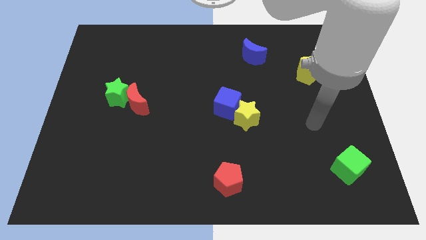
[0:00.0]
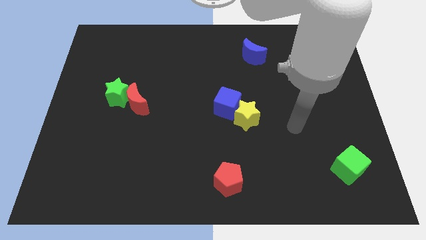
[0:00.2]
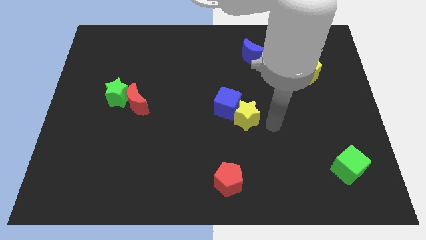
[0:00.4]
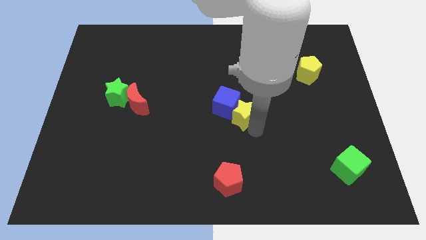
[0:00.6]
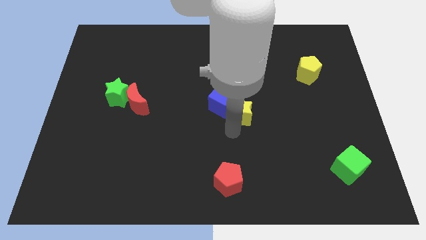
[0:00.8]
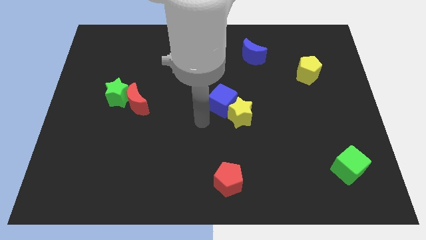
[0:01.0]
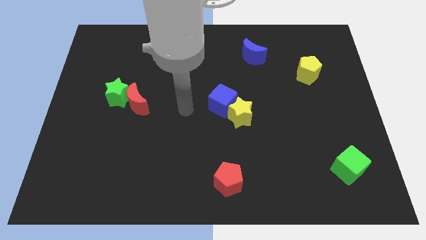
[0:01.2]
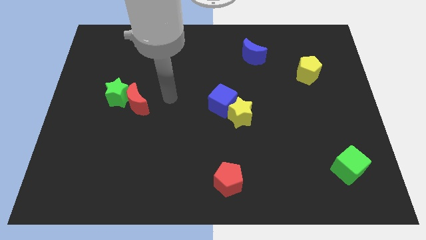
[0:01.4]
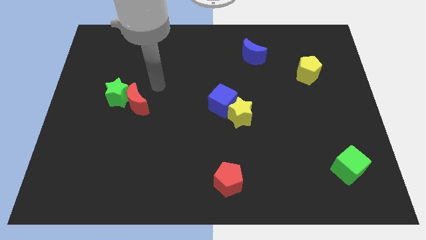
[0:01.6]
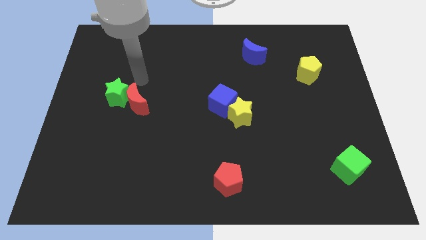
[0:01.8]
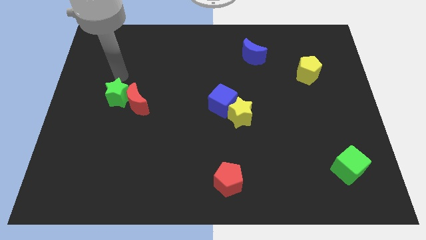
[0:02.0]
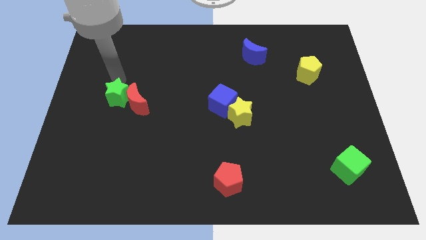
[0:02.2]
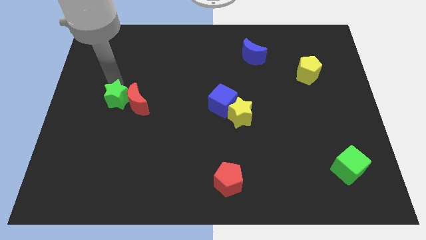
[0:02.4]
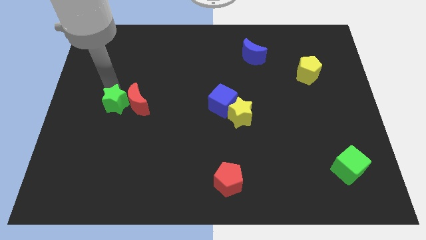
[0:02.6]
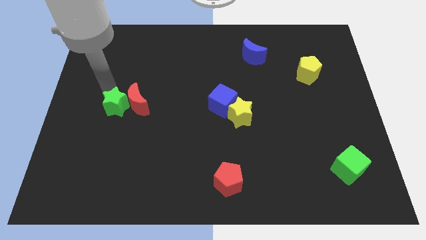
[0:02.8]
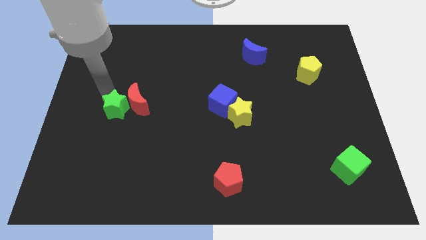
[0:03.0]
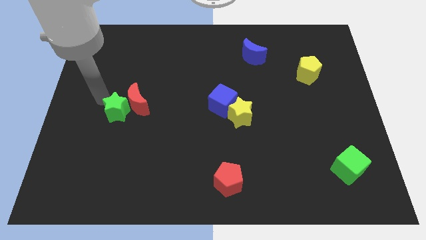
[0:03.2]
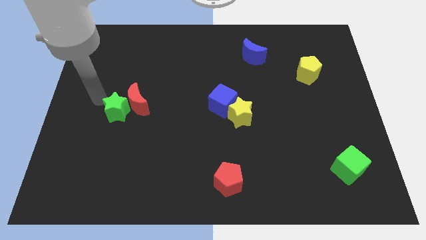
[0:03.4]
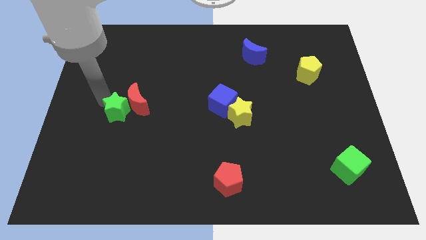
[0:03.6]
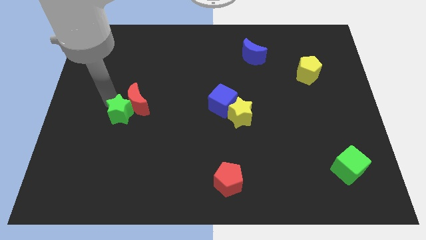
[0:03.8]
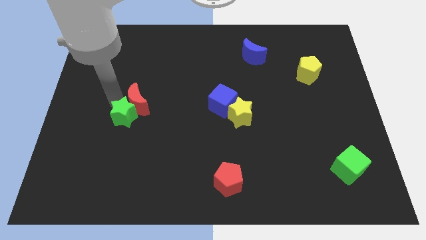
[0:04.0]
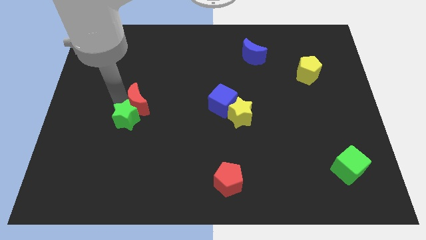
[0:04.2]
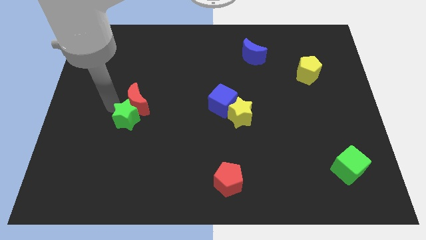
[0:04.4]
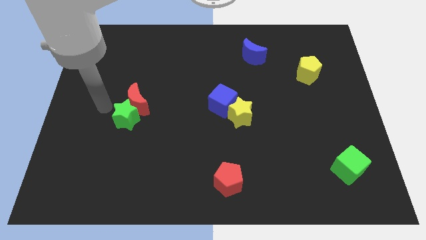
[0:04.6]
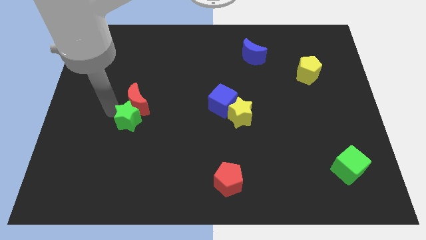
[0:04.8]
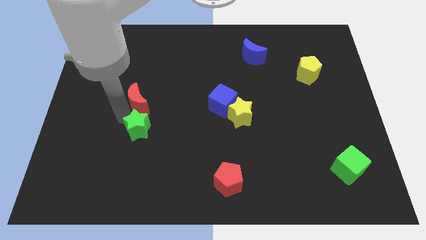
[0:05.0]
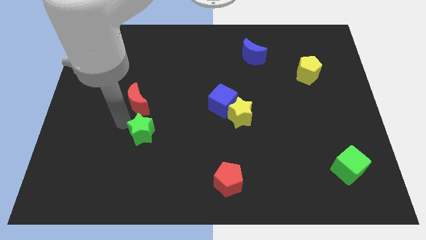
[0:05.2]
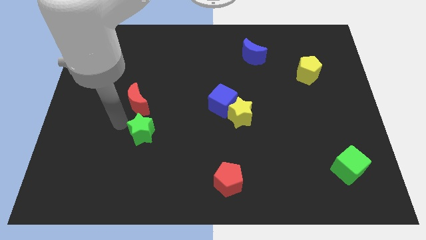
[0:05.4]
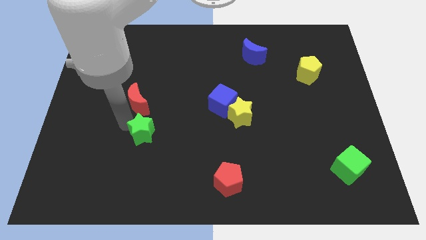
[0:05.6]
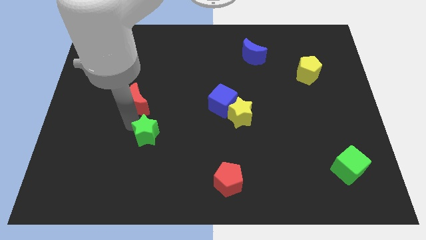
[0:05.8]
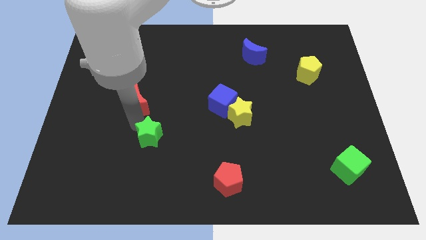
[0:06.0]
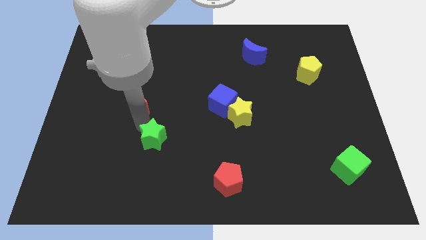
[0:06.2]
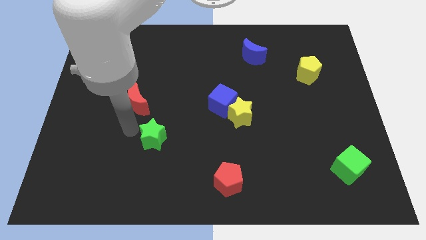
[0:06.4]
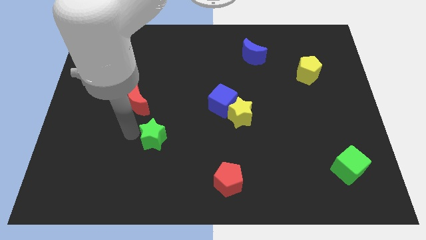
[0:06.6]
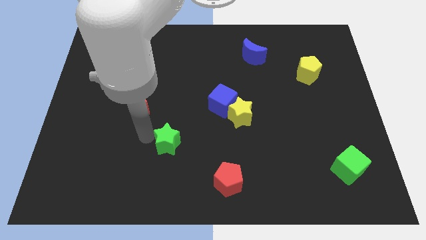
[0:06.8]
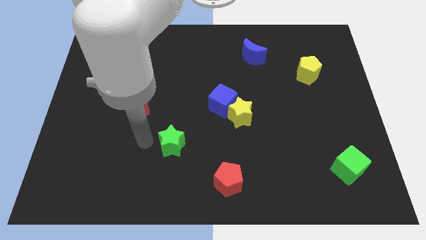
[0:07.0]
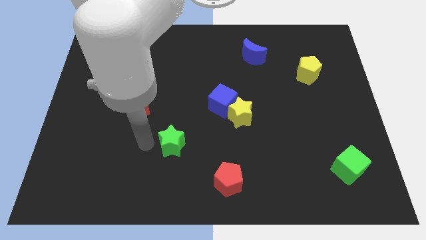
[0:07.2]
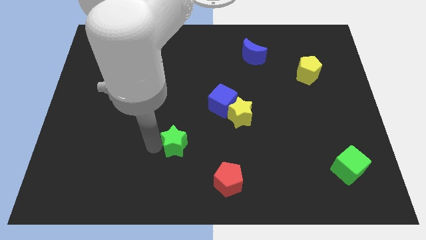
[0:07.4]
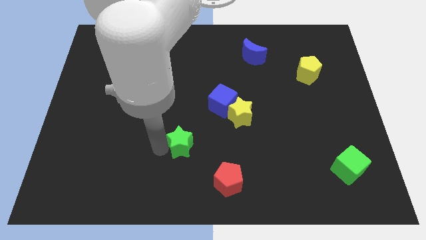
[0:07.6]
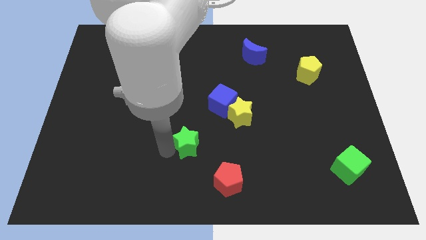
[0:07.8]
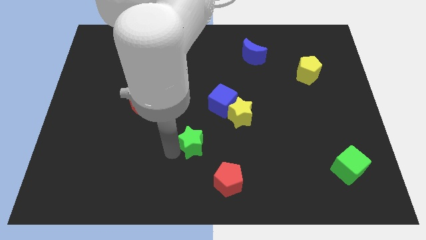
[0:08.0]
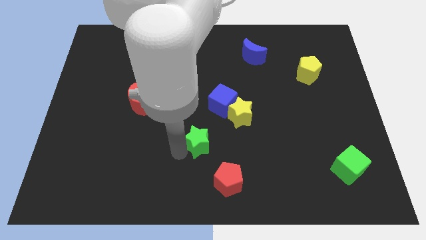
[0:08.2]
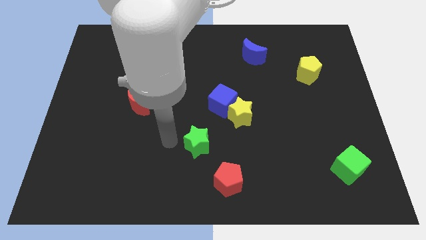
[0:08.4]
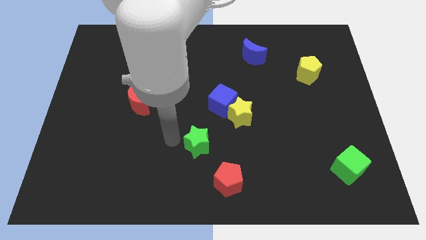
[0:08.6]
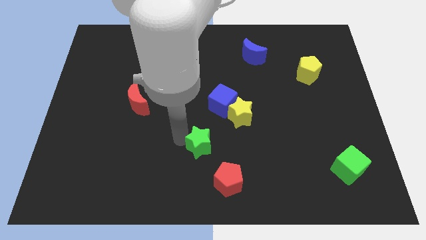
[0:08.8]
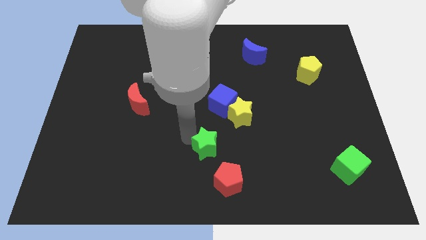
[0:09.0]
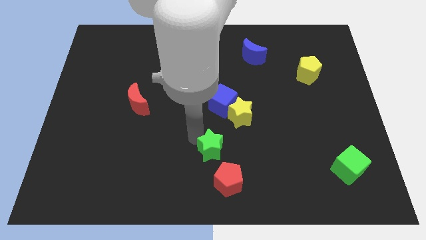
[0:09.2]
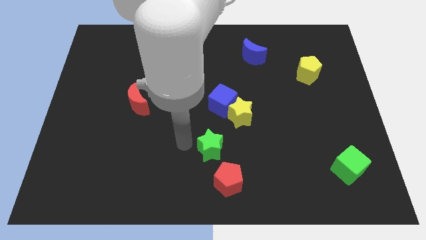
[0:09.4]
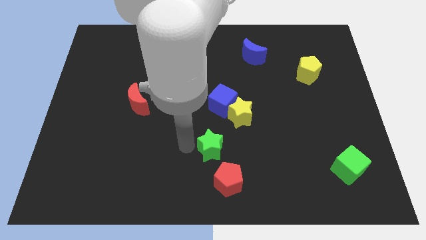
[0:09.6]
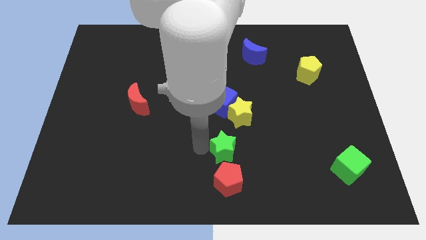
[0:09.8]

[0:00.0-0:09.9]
push the green star below the yellow star

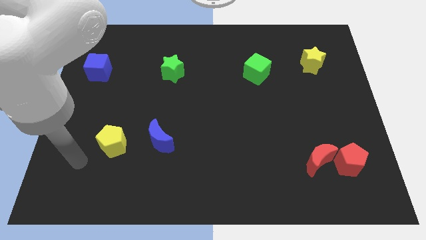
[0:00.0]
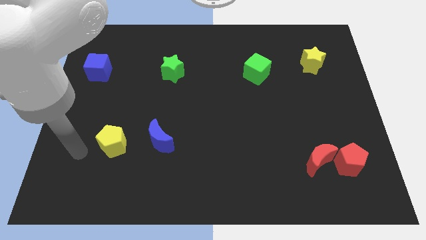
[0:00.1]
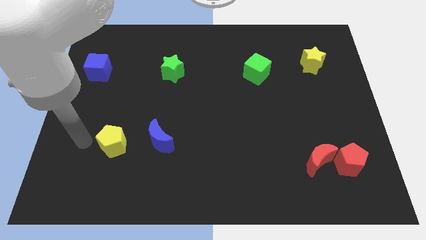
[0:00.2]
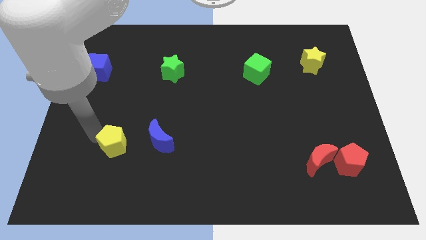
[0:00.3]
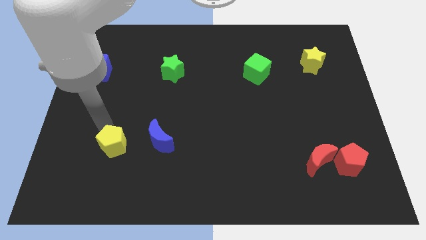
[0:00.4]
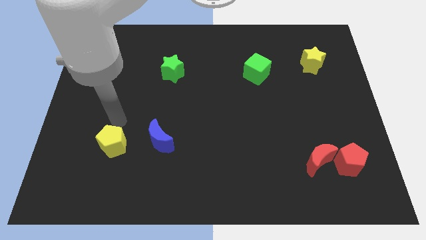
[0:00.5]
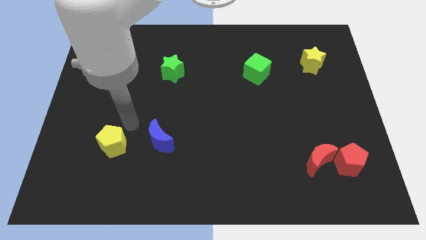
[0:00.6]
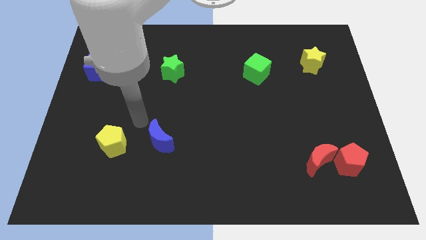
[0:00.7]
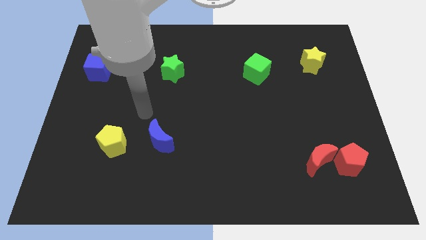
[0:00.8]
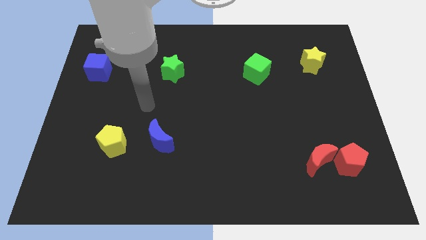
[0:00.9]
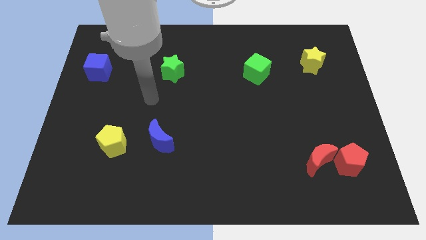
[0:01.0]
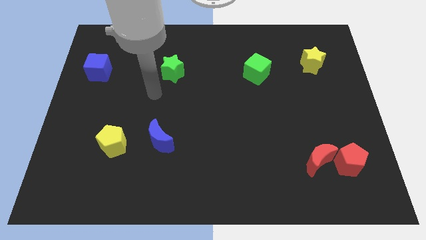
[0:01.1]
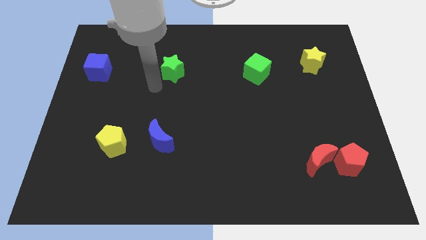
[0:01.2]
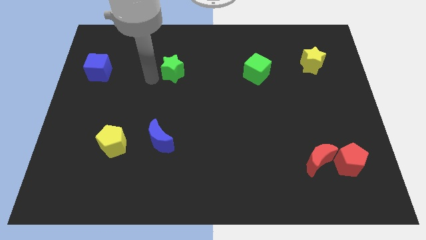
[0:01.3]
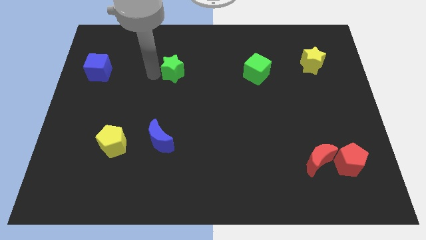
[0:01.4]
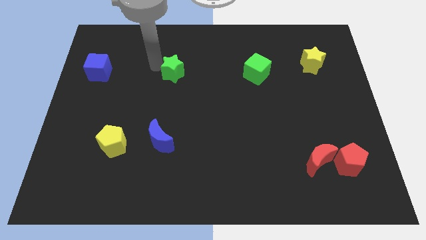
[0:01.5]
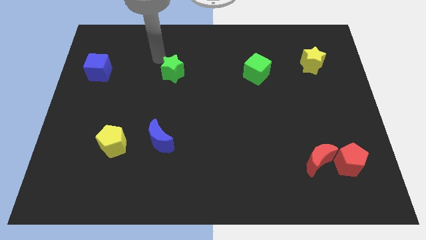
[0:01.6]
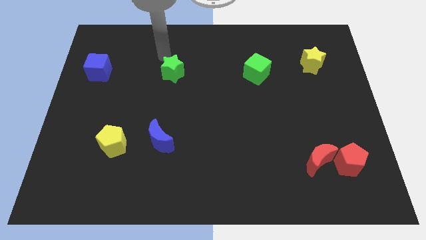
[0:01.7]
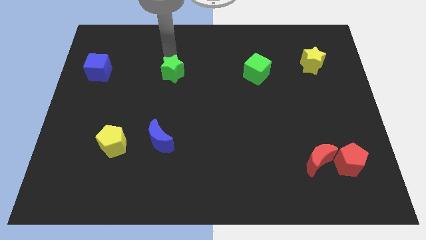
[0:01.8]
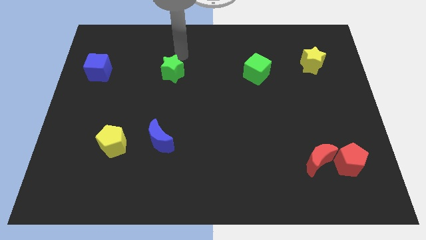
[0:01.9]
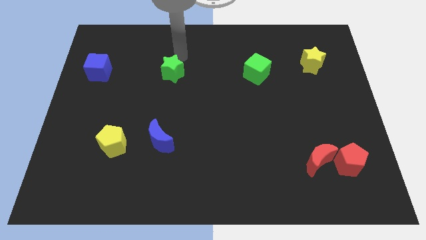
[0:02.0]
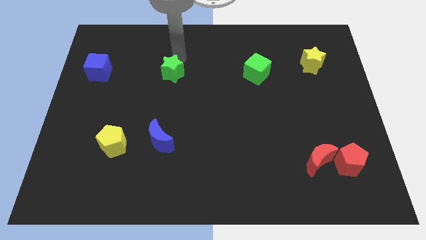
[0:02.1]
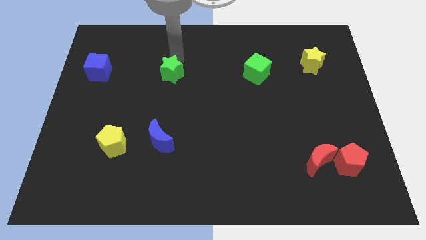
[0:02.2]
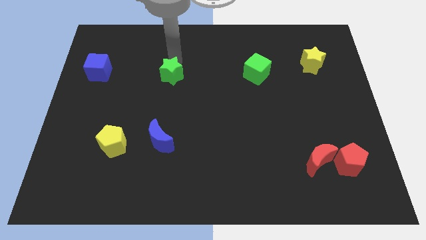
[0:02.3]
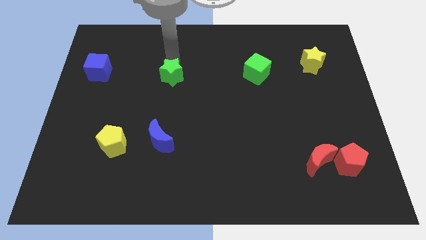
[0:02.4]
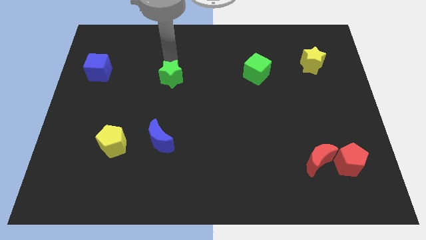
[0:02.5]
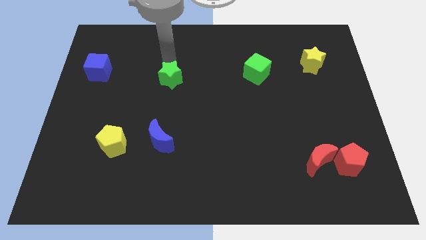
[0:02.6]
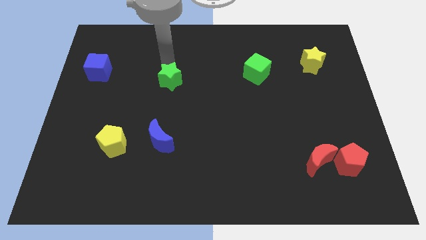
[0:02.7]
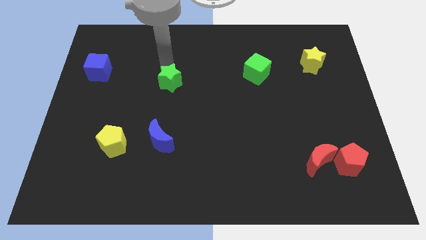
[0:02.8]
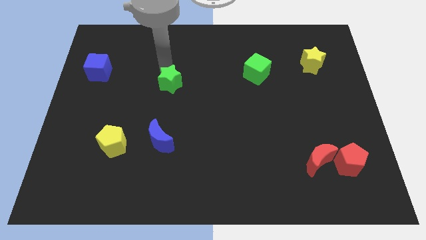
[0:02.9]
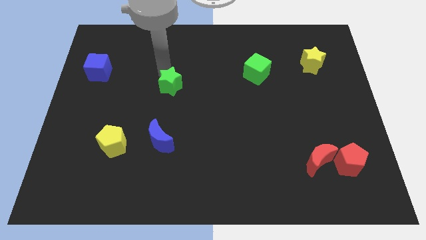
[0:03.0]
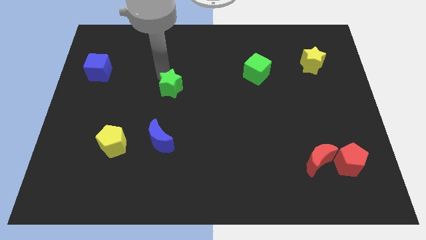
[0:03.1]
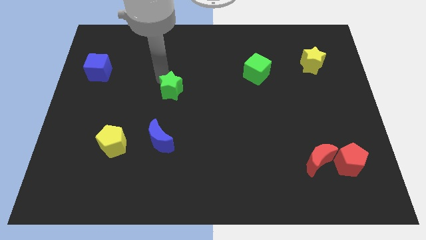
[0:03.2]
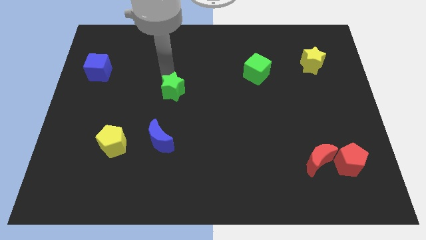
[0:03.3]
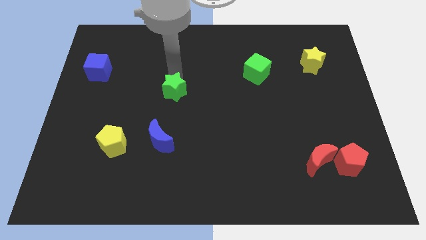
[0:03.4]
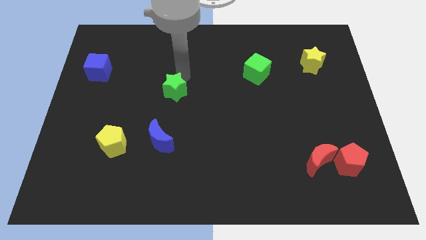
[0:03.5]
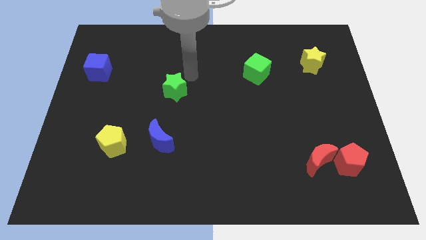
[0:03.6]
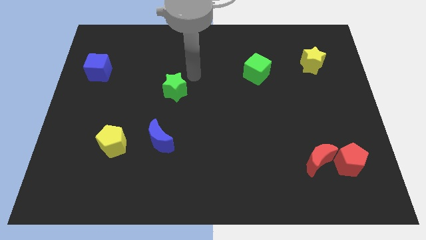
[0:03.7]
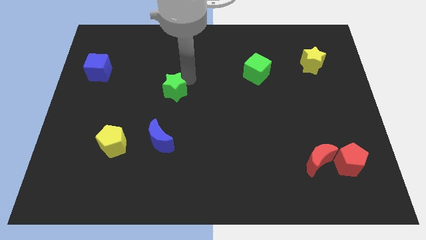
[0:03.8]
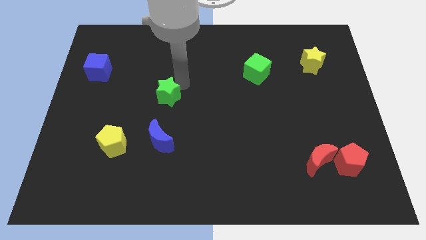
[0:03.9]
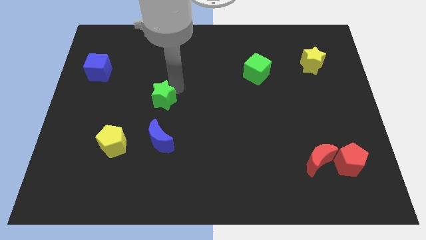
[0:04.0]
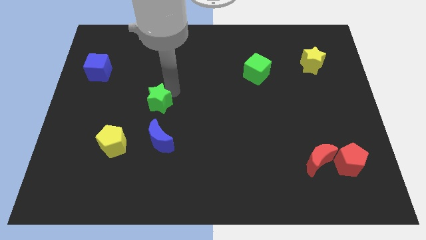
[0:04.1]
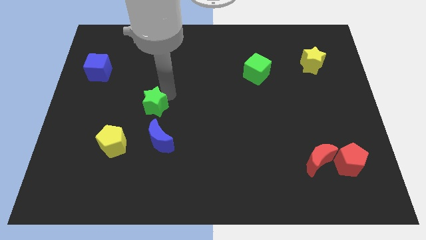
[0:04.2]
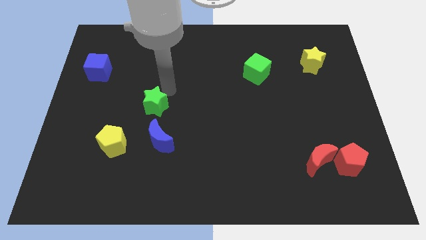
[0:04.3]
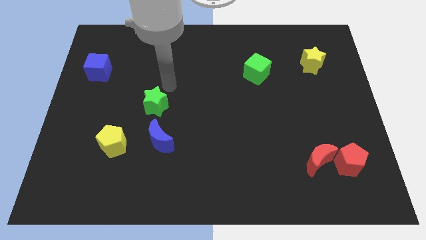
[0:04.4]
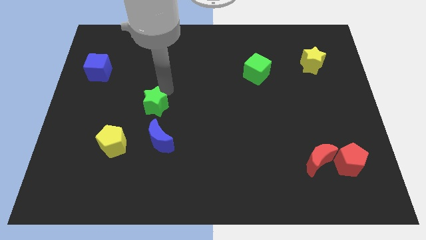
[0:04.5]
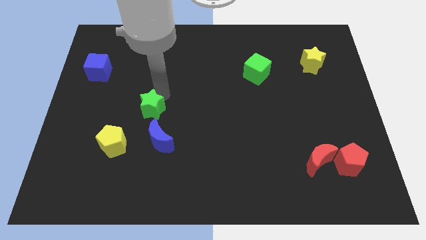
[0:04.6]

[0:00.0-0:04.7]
move the green star to the top right of the yellow pentagon
